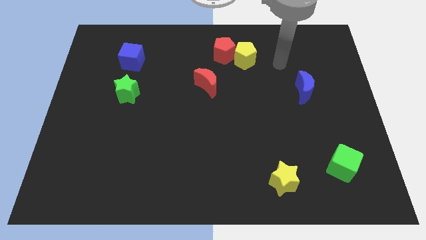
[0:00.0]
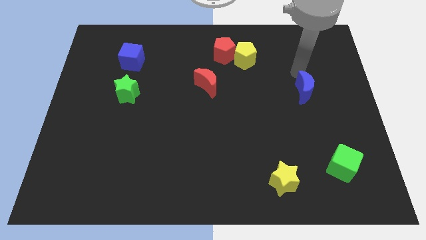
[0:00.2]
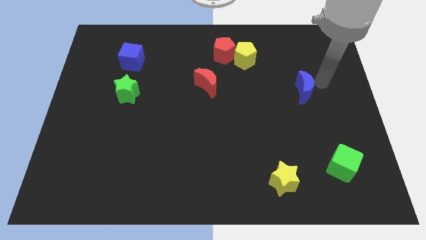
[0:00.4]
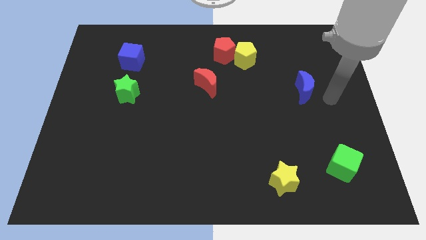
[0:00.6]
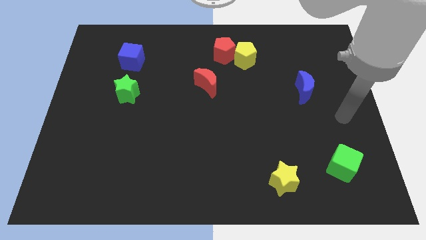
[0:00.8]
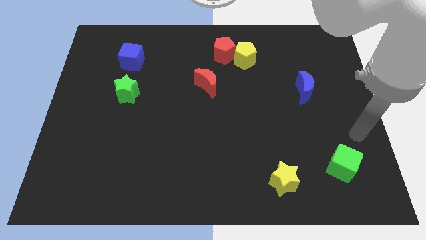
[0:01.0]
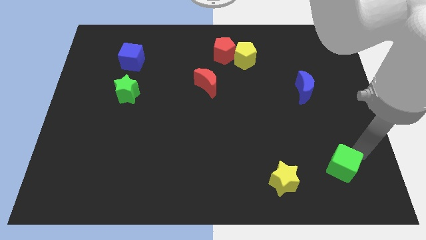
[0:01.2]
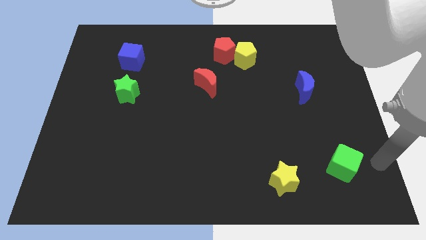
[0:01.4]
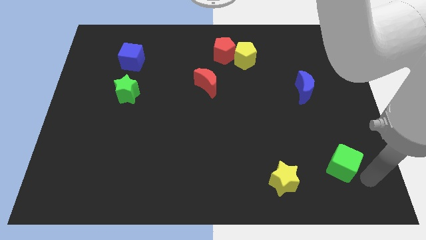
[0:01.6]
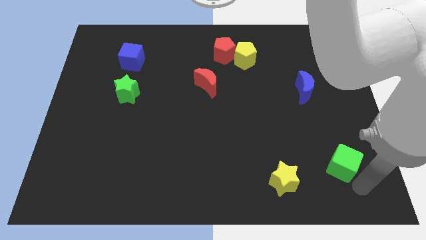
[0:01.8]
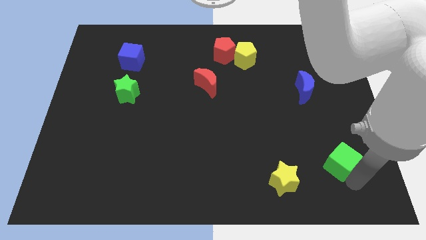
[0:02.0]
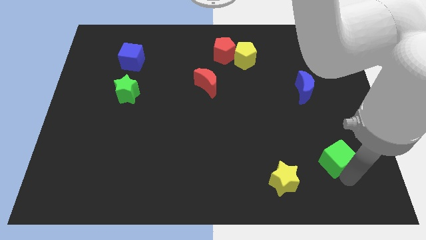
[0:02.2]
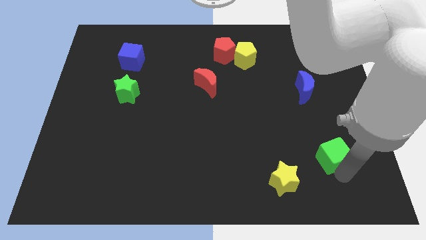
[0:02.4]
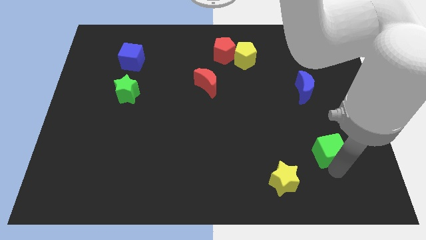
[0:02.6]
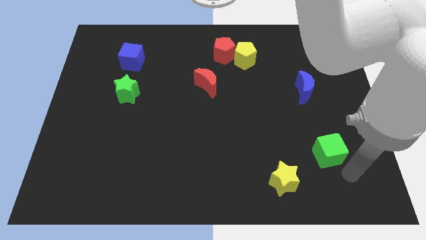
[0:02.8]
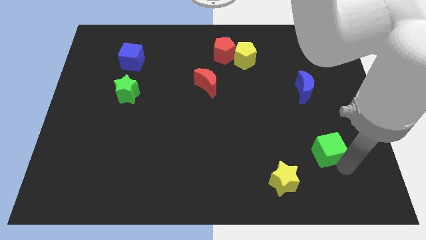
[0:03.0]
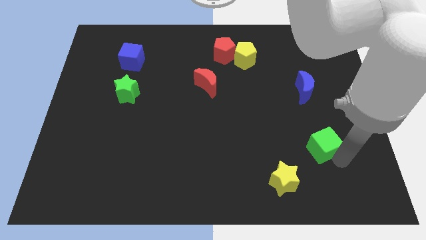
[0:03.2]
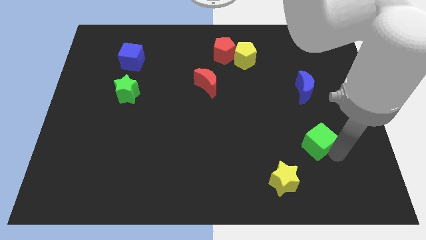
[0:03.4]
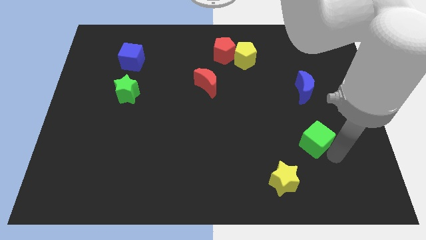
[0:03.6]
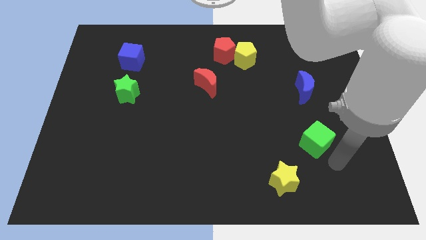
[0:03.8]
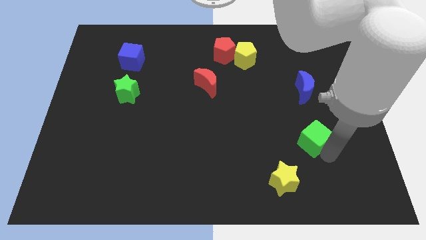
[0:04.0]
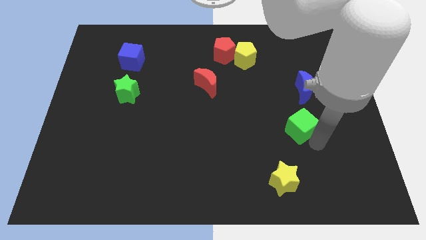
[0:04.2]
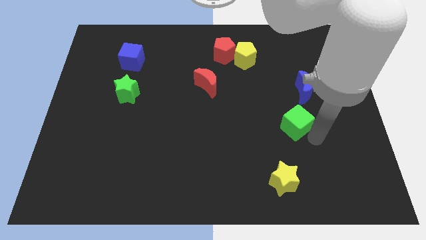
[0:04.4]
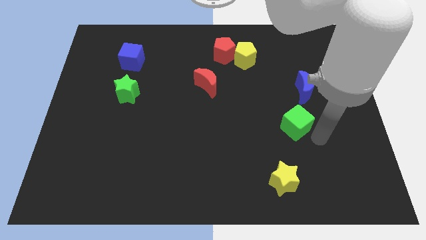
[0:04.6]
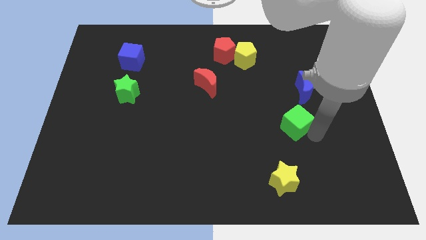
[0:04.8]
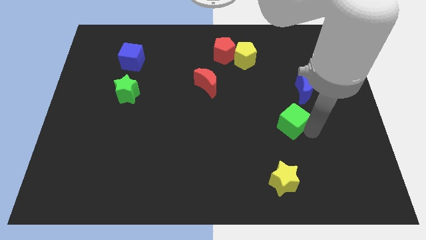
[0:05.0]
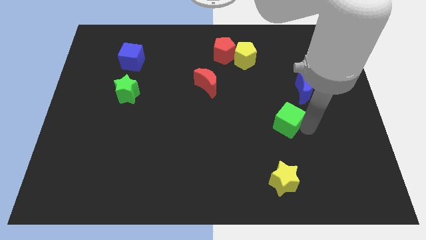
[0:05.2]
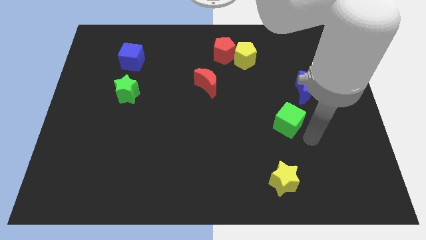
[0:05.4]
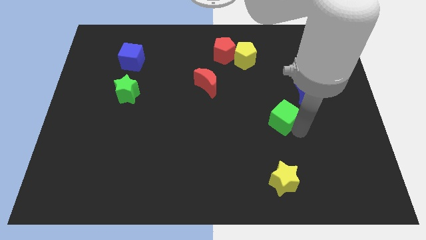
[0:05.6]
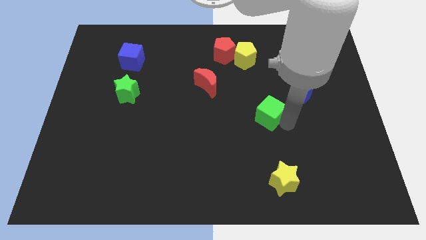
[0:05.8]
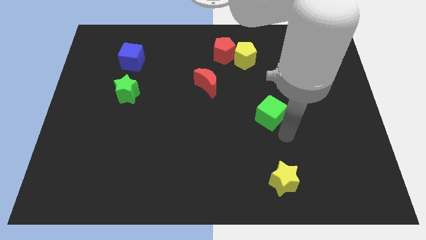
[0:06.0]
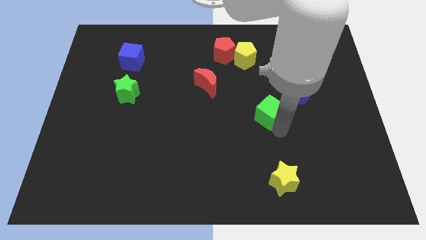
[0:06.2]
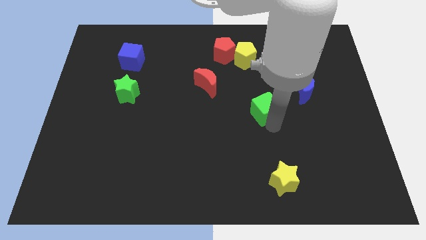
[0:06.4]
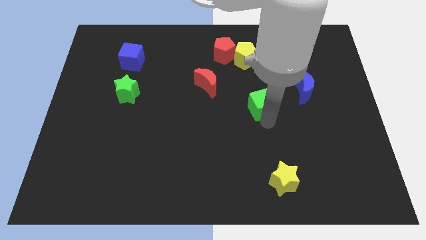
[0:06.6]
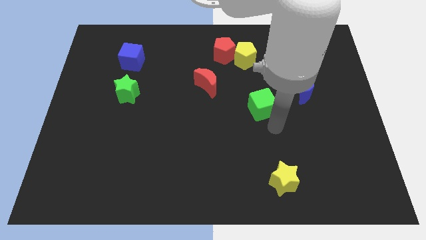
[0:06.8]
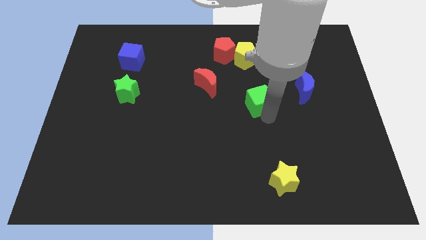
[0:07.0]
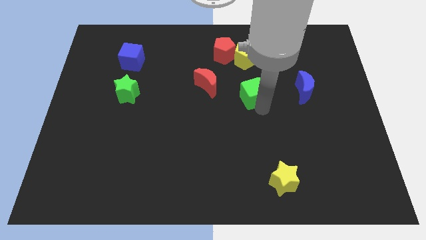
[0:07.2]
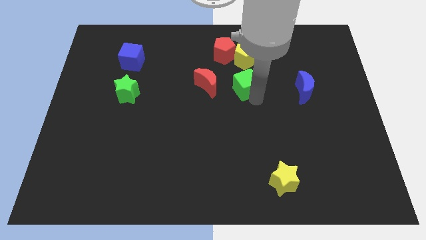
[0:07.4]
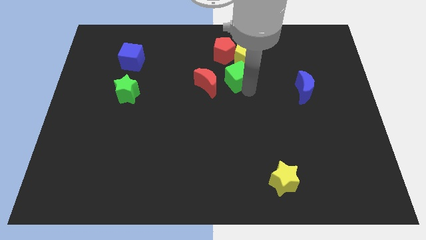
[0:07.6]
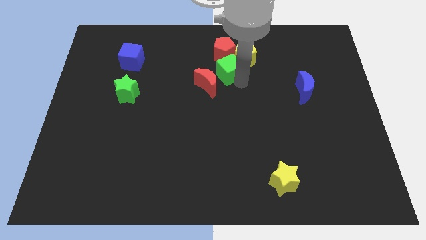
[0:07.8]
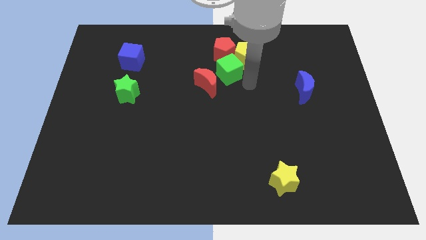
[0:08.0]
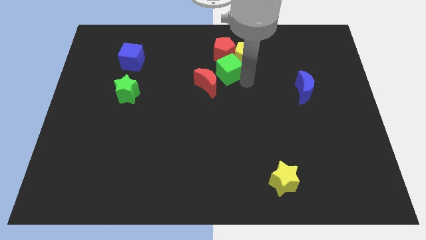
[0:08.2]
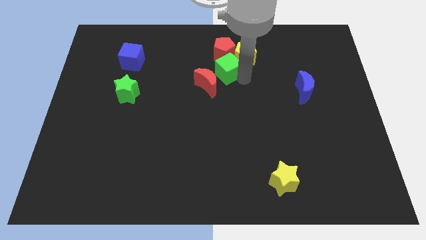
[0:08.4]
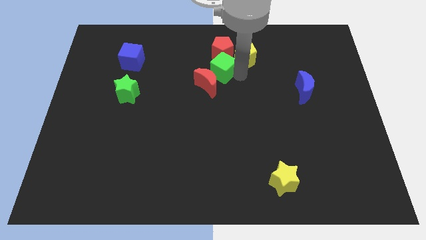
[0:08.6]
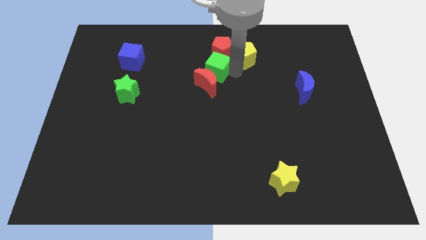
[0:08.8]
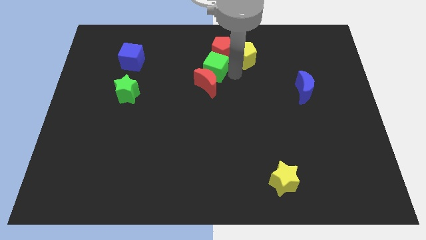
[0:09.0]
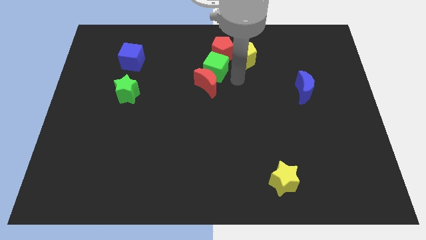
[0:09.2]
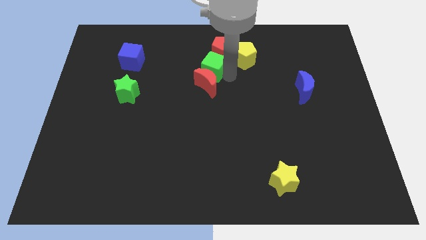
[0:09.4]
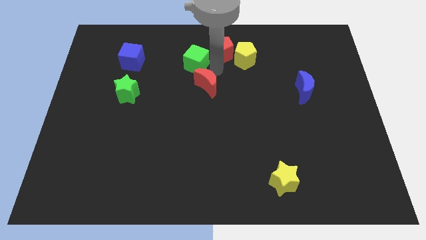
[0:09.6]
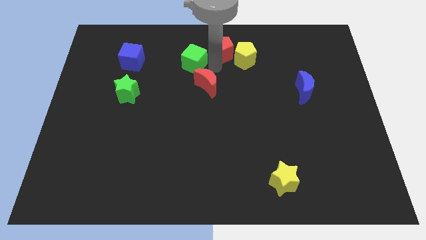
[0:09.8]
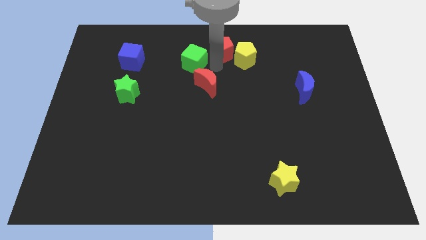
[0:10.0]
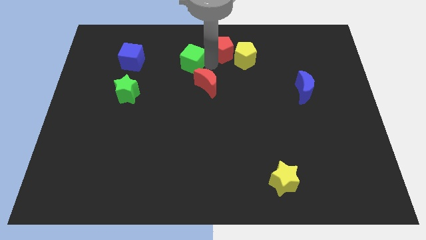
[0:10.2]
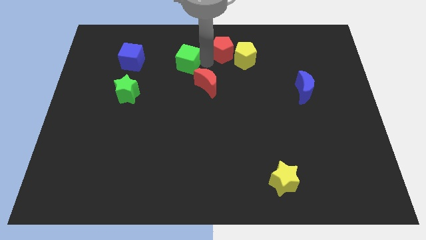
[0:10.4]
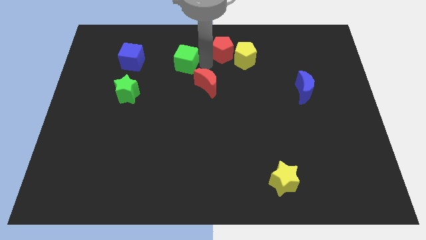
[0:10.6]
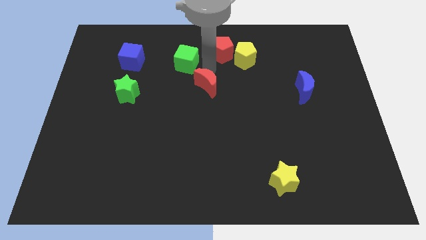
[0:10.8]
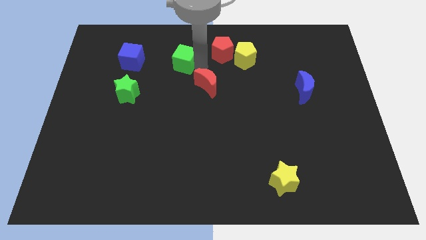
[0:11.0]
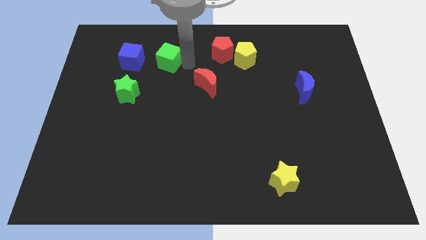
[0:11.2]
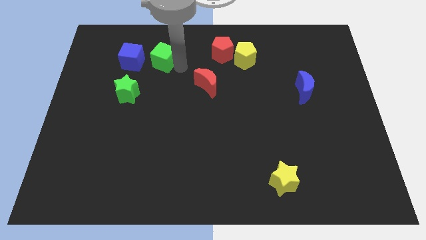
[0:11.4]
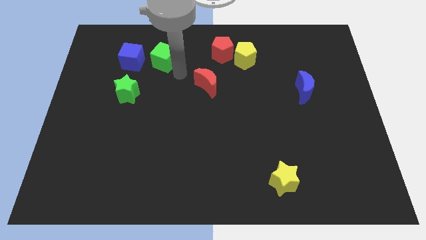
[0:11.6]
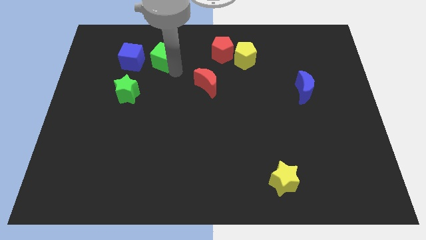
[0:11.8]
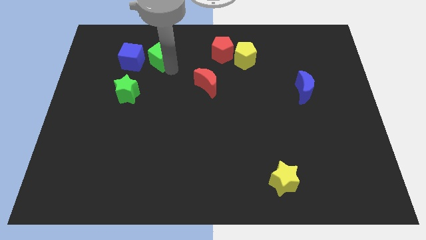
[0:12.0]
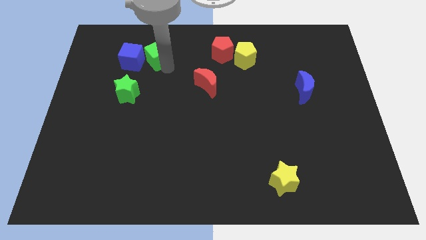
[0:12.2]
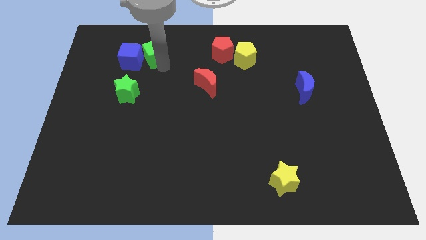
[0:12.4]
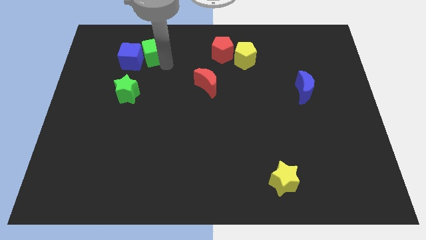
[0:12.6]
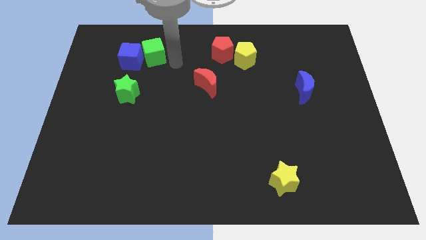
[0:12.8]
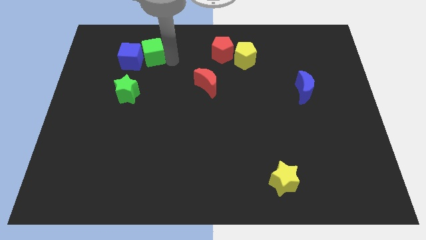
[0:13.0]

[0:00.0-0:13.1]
push the green cube to the top side of the green star

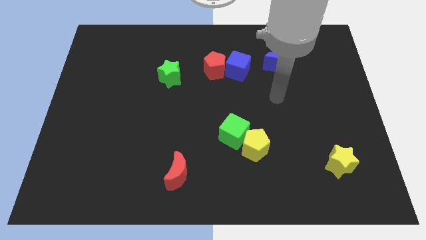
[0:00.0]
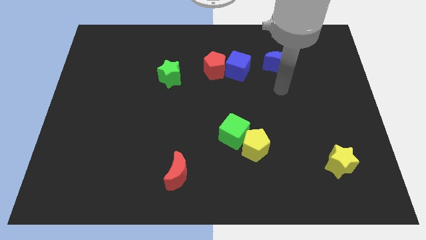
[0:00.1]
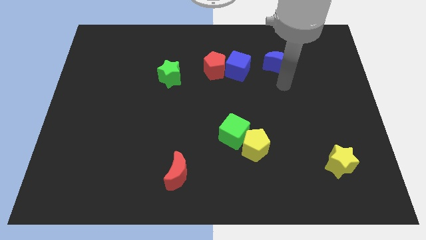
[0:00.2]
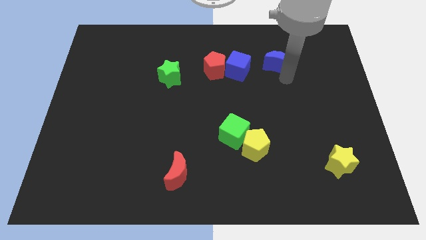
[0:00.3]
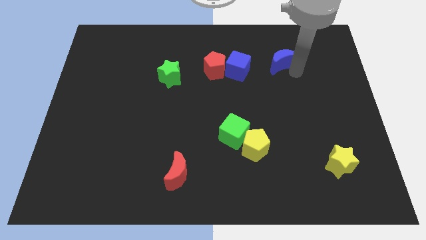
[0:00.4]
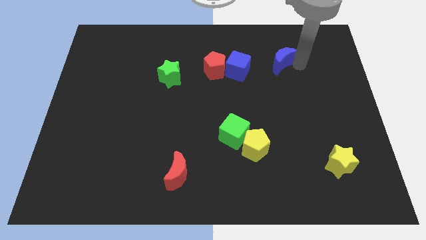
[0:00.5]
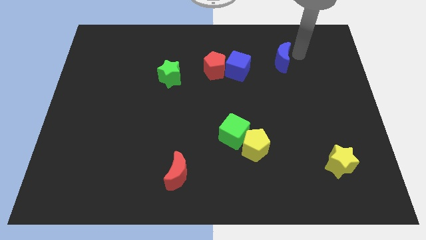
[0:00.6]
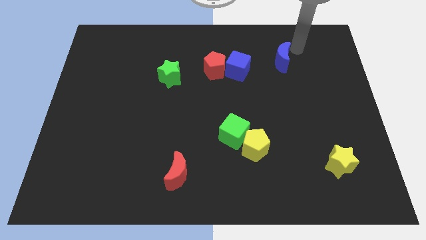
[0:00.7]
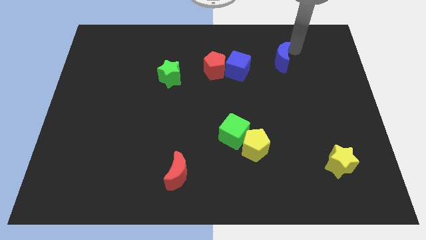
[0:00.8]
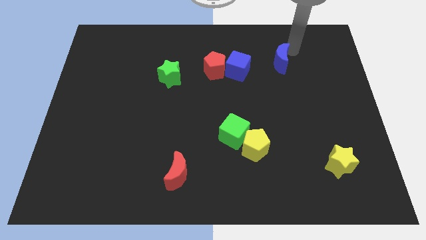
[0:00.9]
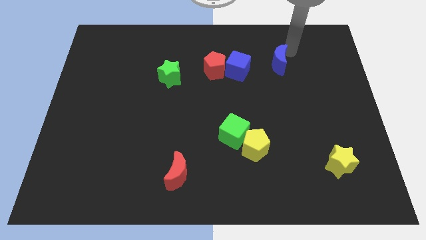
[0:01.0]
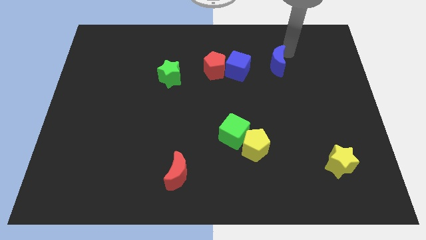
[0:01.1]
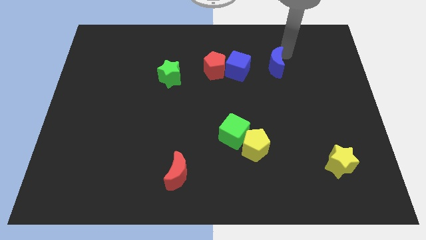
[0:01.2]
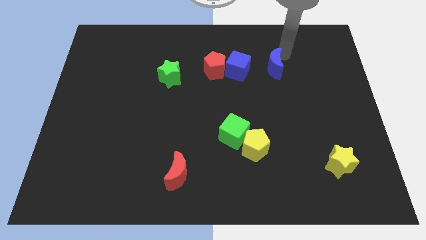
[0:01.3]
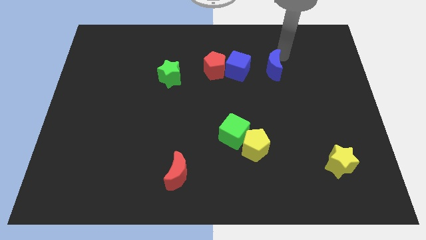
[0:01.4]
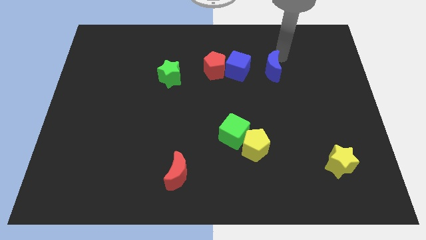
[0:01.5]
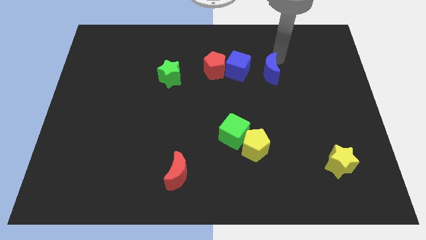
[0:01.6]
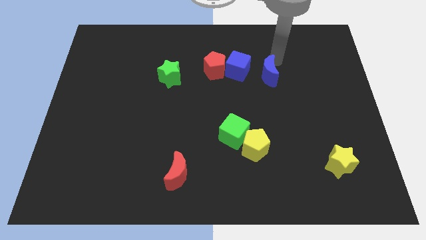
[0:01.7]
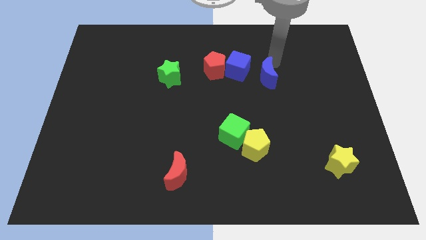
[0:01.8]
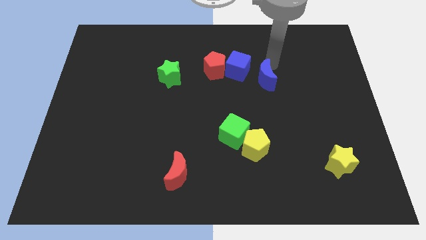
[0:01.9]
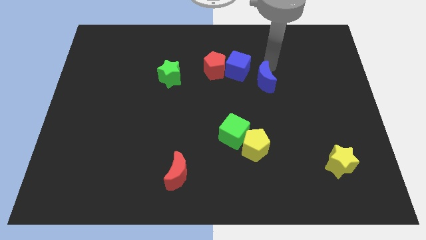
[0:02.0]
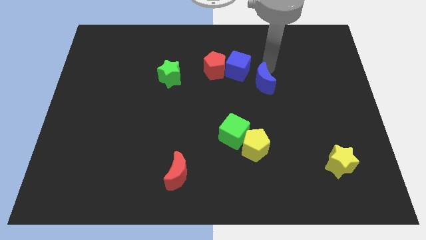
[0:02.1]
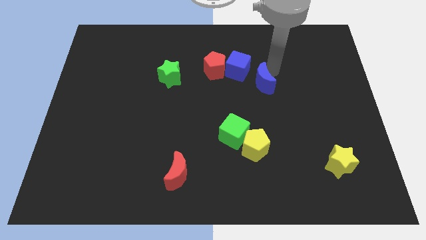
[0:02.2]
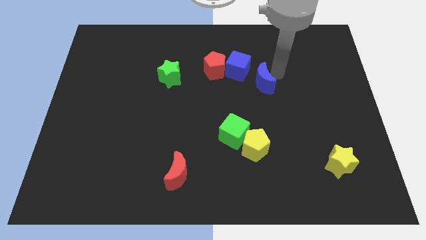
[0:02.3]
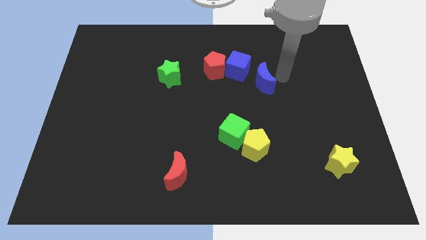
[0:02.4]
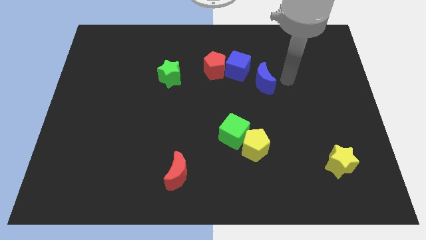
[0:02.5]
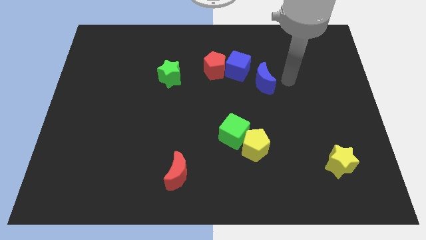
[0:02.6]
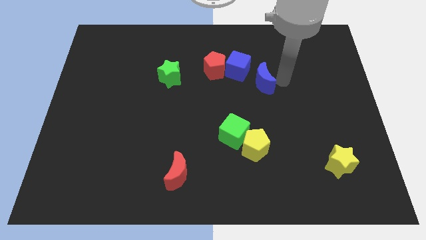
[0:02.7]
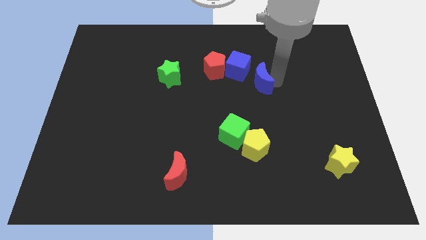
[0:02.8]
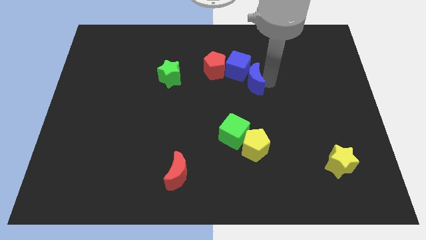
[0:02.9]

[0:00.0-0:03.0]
push the blue moon to the bottom right of the red pentagon
